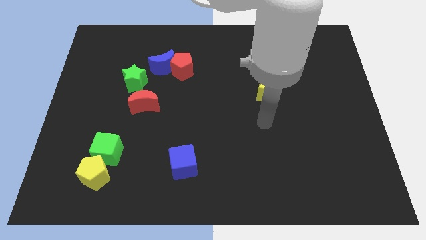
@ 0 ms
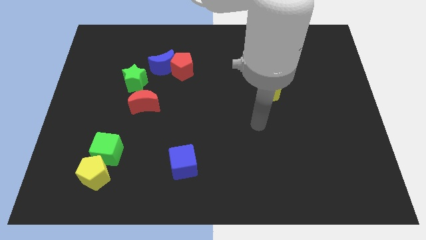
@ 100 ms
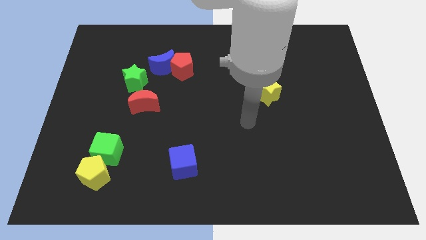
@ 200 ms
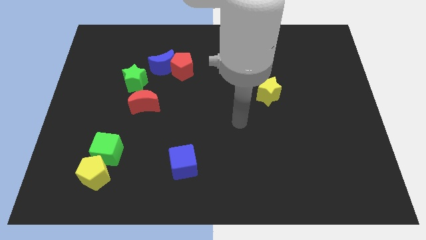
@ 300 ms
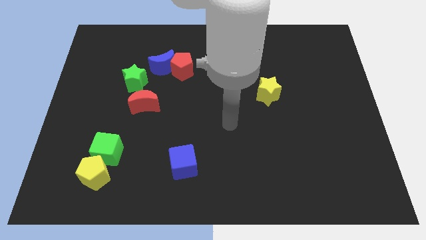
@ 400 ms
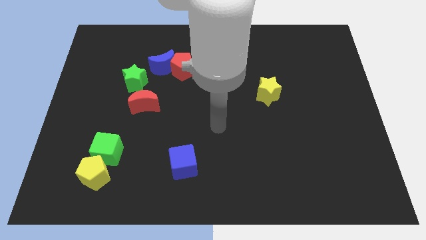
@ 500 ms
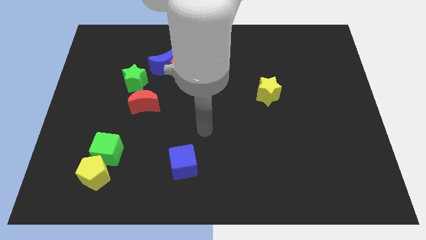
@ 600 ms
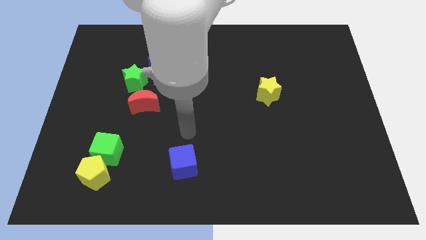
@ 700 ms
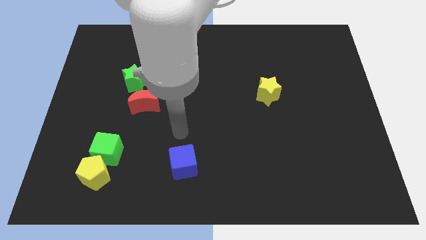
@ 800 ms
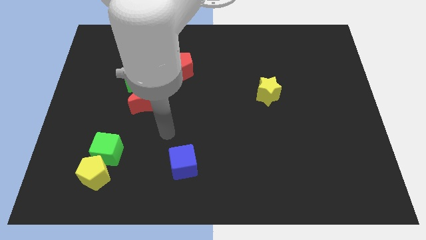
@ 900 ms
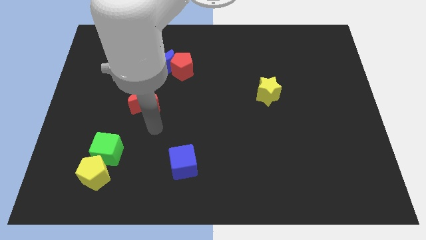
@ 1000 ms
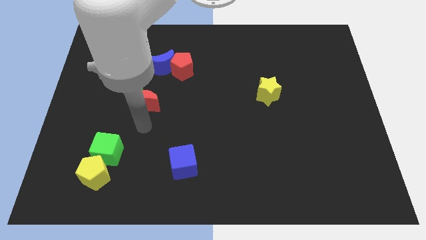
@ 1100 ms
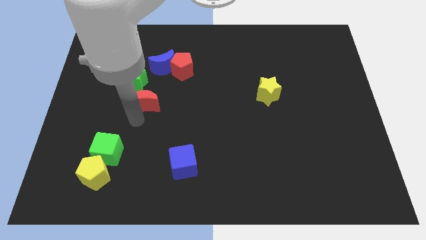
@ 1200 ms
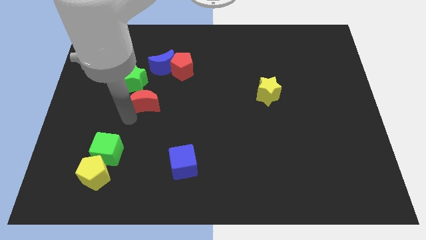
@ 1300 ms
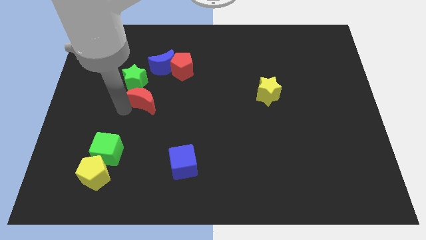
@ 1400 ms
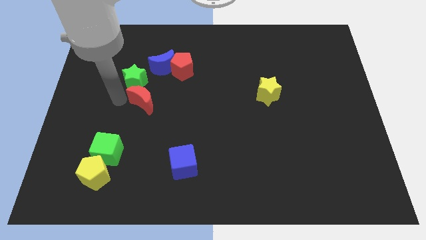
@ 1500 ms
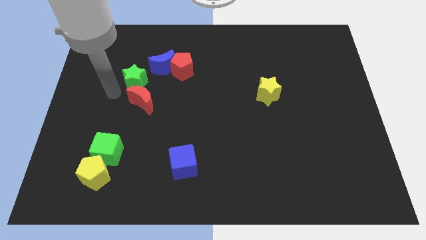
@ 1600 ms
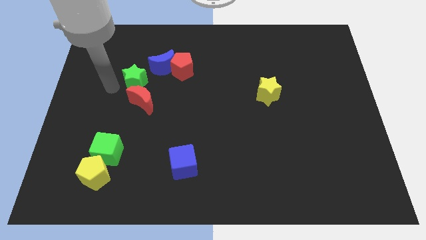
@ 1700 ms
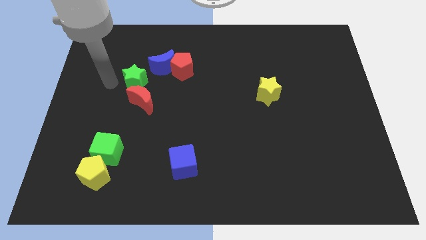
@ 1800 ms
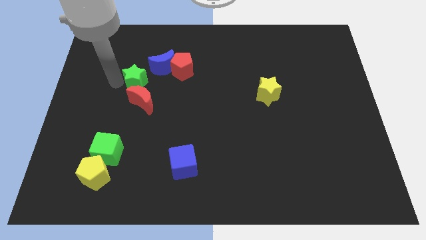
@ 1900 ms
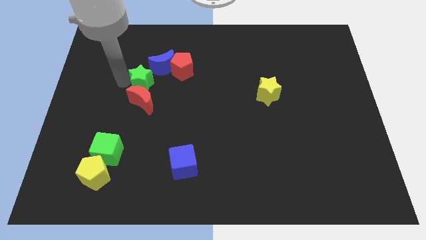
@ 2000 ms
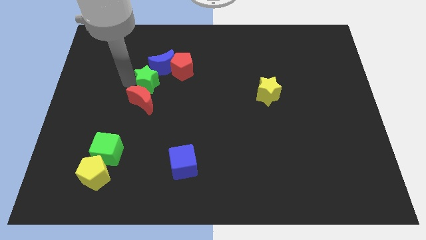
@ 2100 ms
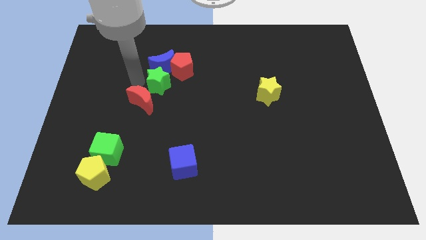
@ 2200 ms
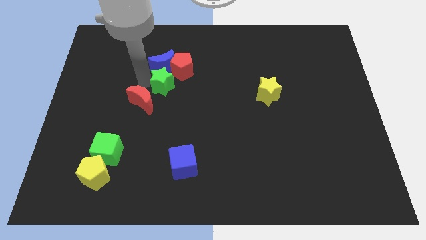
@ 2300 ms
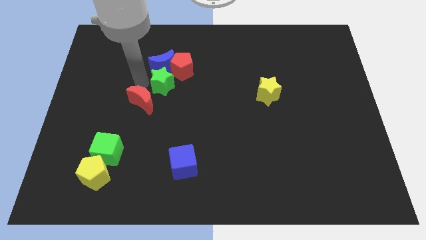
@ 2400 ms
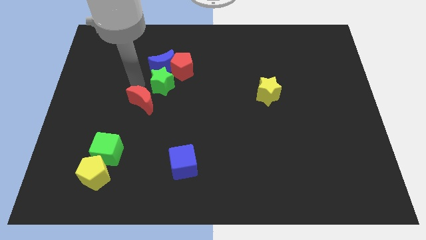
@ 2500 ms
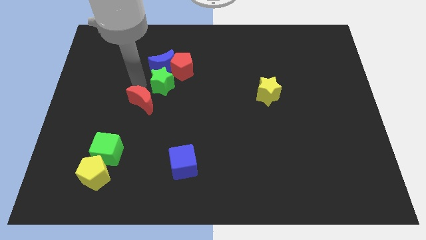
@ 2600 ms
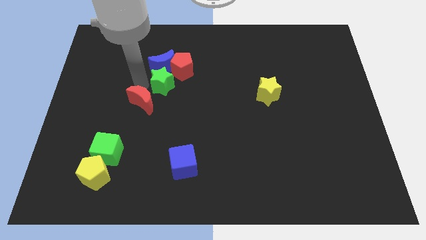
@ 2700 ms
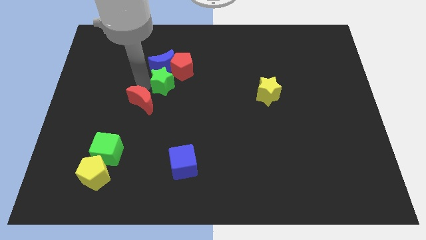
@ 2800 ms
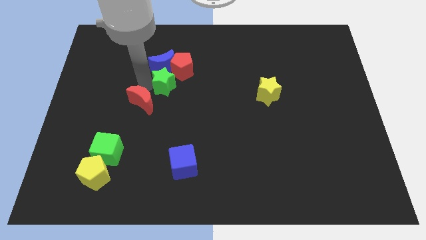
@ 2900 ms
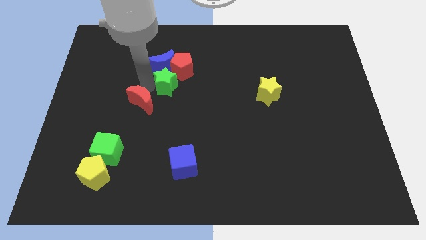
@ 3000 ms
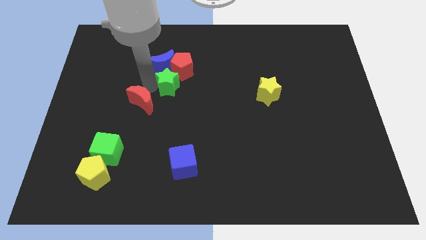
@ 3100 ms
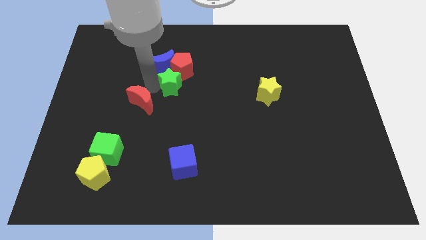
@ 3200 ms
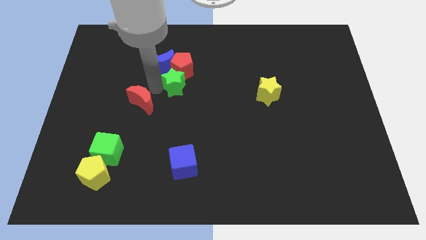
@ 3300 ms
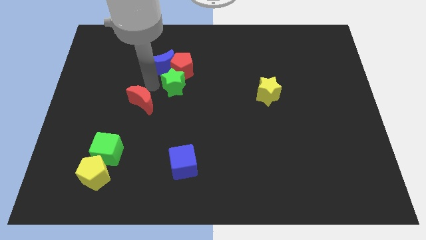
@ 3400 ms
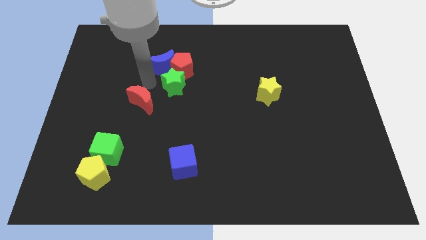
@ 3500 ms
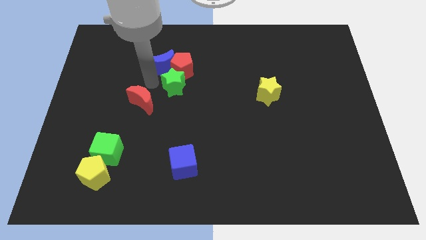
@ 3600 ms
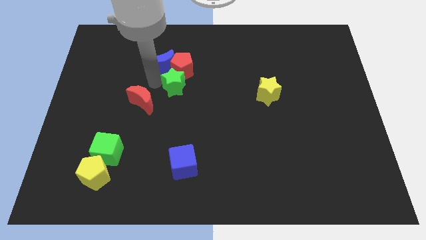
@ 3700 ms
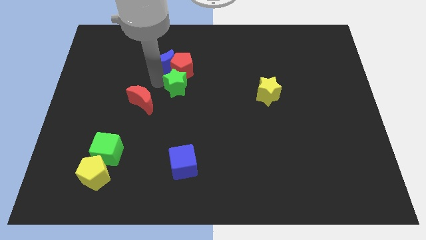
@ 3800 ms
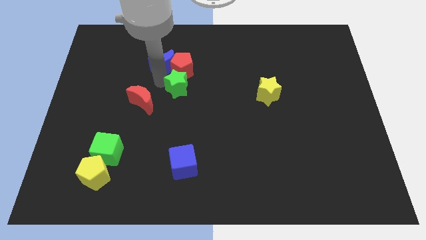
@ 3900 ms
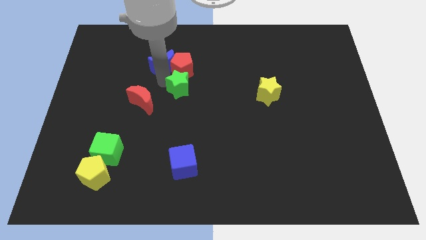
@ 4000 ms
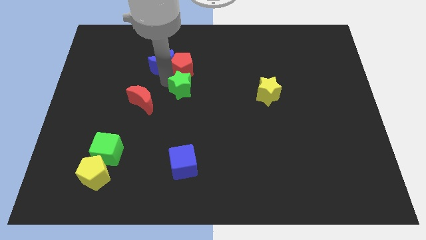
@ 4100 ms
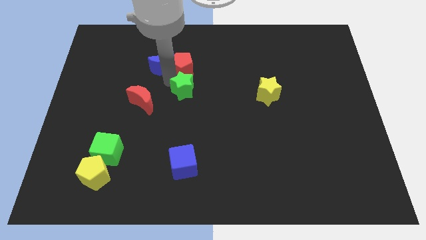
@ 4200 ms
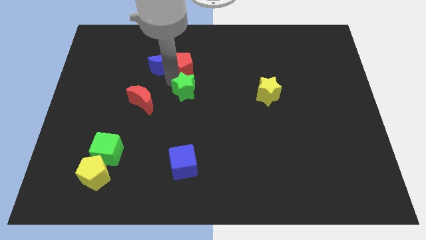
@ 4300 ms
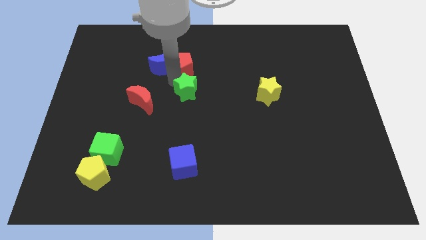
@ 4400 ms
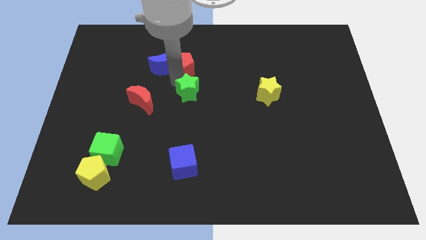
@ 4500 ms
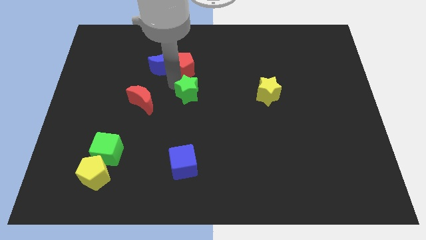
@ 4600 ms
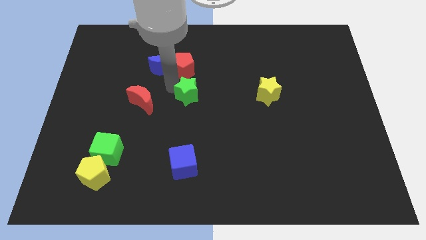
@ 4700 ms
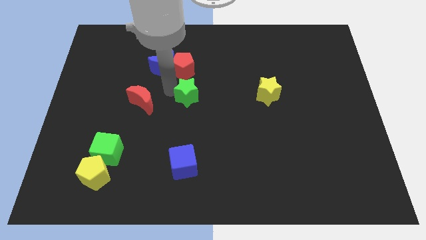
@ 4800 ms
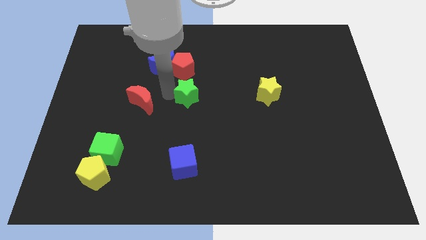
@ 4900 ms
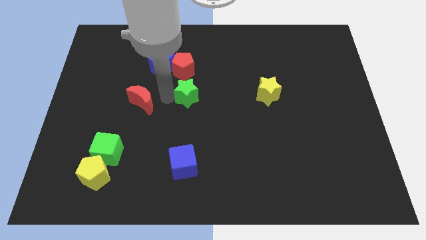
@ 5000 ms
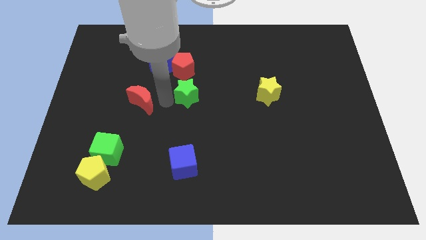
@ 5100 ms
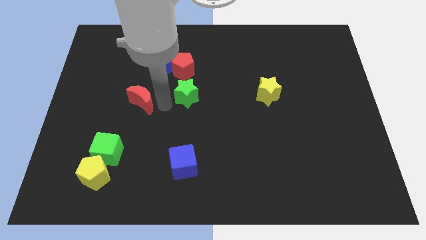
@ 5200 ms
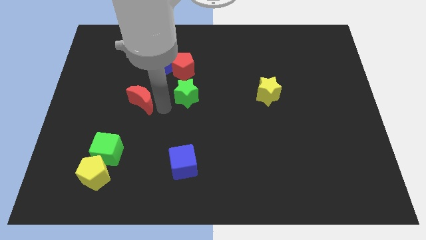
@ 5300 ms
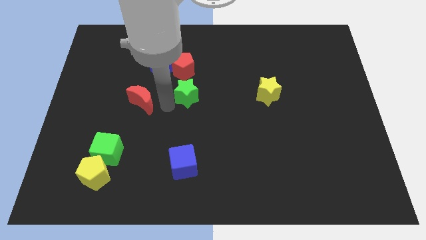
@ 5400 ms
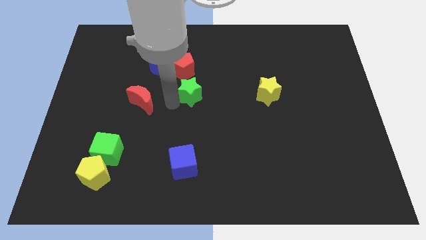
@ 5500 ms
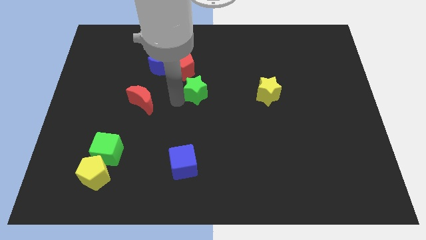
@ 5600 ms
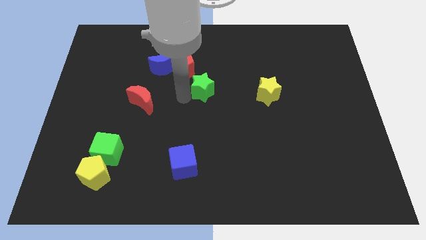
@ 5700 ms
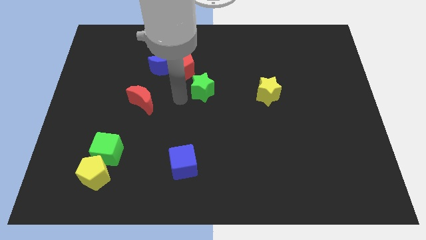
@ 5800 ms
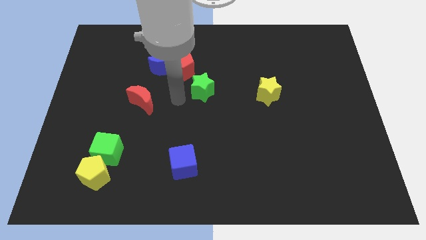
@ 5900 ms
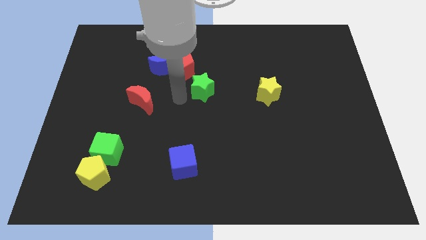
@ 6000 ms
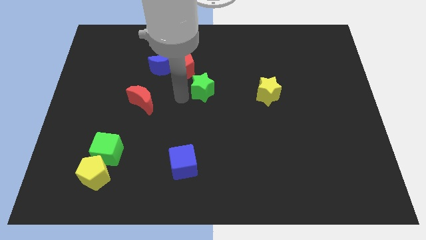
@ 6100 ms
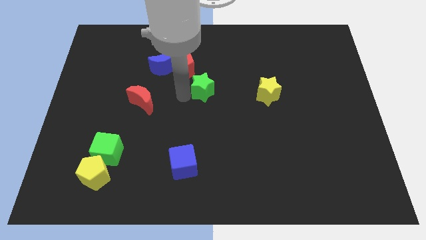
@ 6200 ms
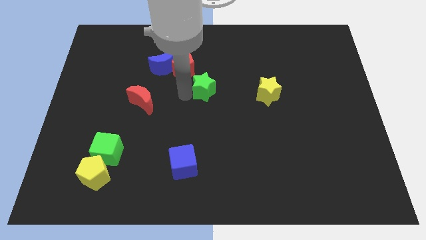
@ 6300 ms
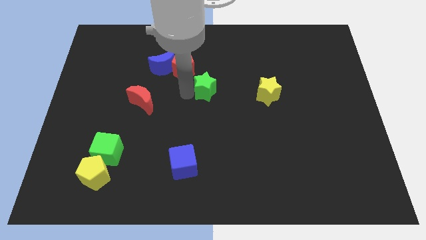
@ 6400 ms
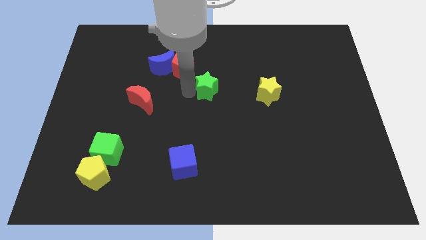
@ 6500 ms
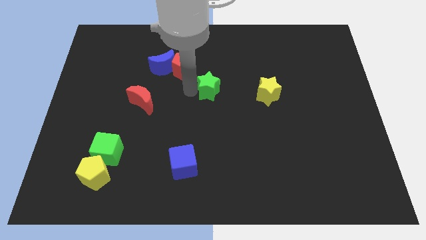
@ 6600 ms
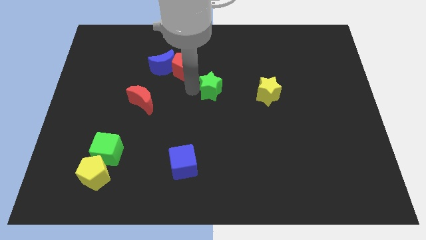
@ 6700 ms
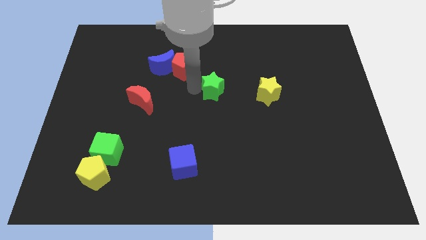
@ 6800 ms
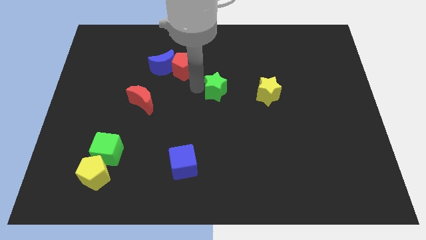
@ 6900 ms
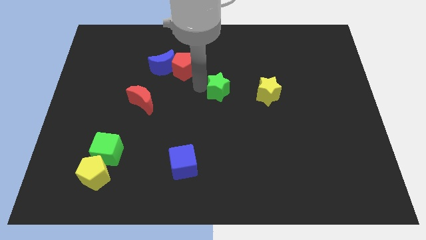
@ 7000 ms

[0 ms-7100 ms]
push the green star right

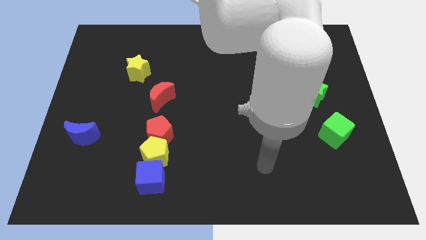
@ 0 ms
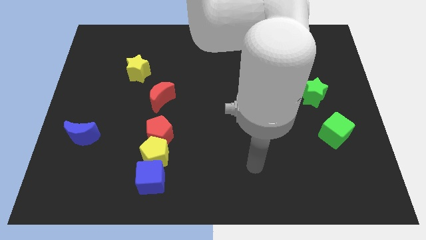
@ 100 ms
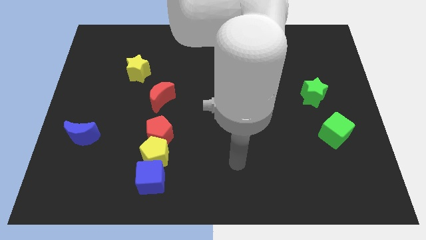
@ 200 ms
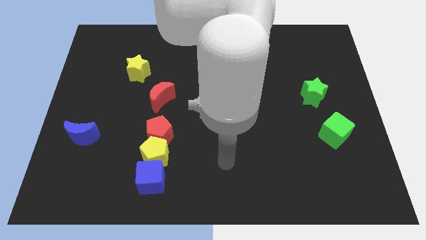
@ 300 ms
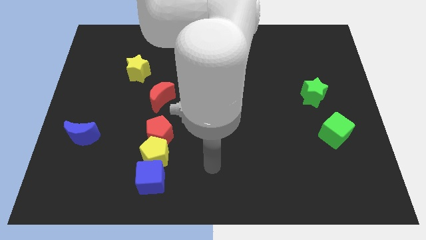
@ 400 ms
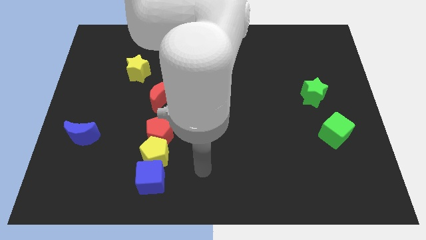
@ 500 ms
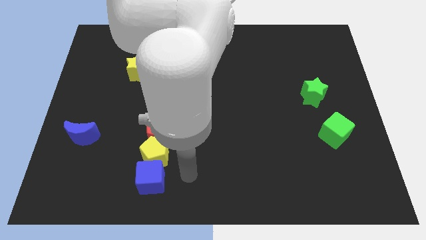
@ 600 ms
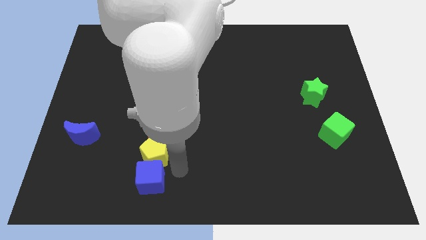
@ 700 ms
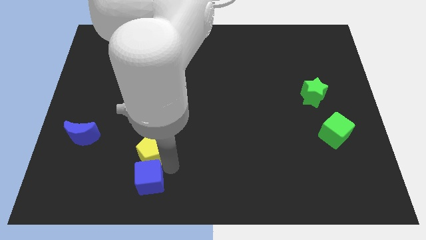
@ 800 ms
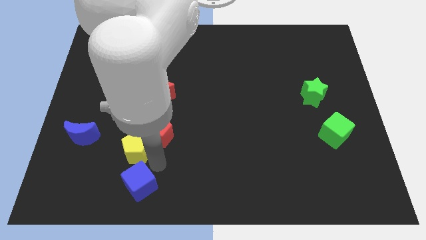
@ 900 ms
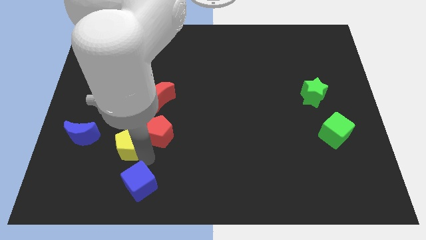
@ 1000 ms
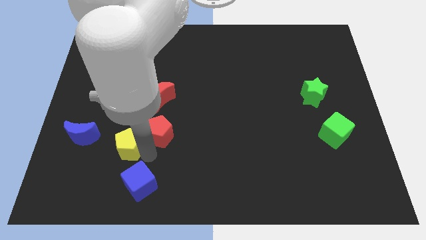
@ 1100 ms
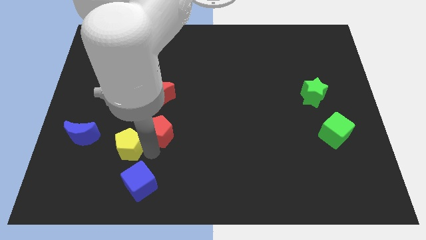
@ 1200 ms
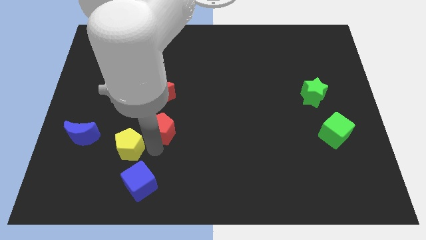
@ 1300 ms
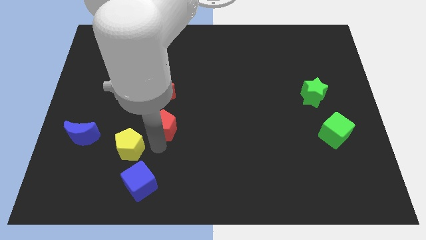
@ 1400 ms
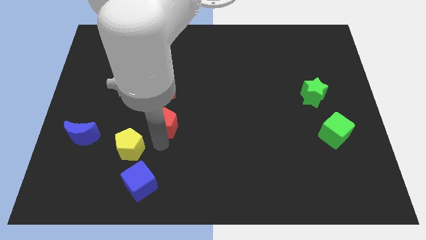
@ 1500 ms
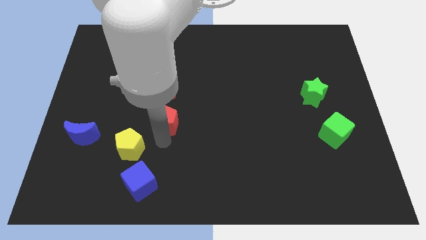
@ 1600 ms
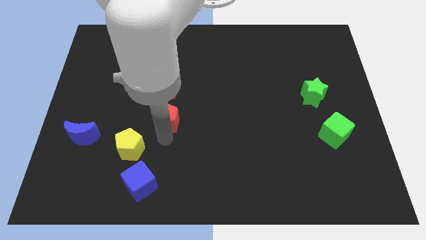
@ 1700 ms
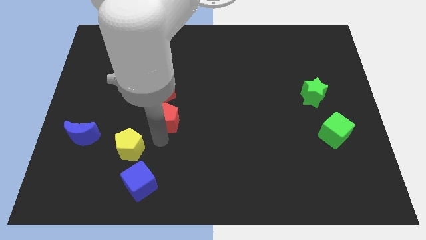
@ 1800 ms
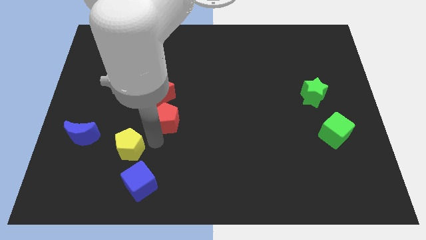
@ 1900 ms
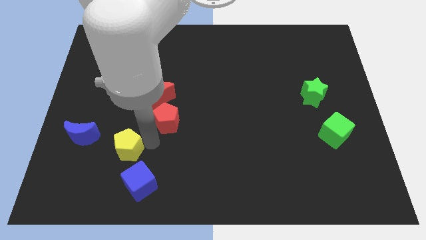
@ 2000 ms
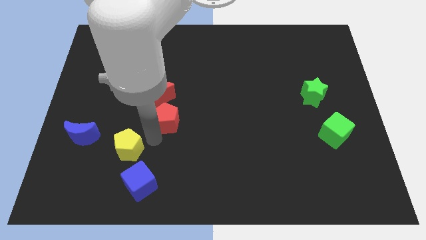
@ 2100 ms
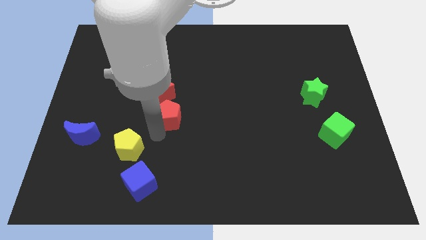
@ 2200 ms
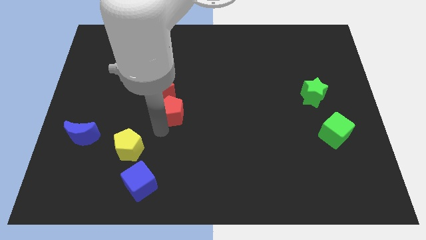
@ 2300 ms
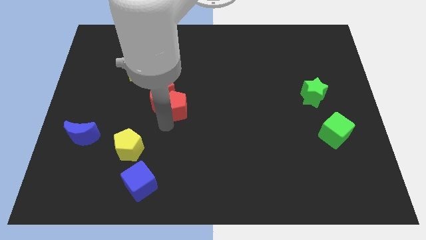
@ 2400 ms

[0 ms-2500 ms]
slightly move the red pentagon up
